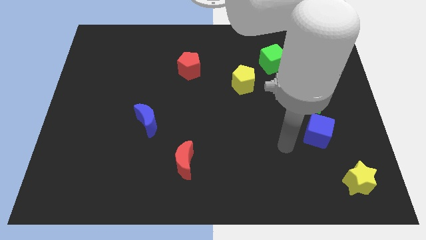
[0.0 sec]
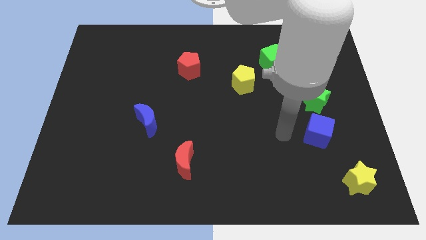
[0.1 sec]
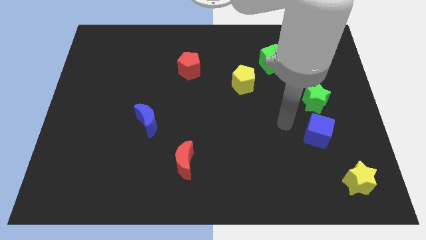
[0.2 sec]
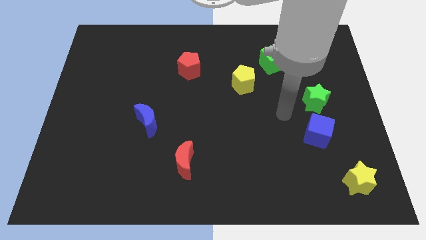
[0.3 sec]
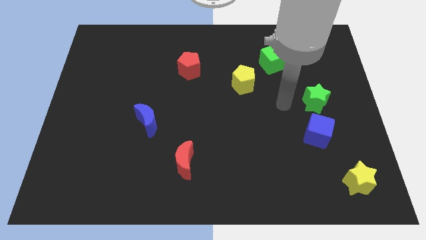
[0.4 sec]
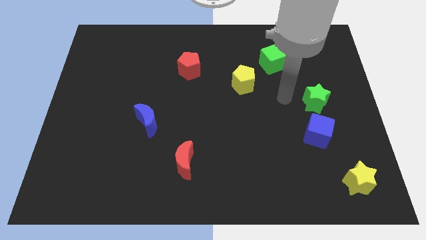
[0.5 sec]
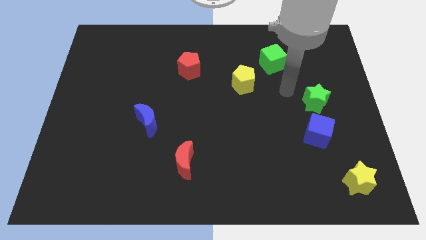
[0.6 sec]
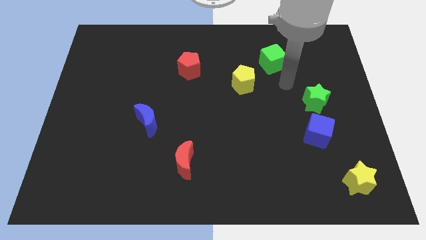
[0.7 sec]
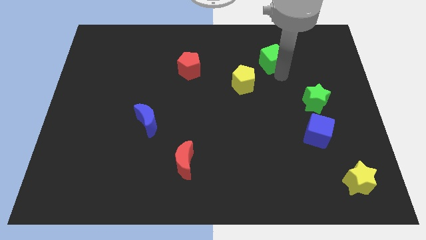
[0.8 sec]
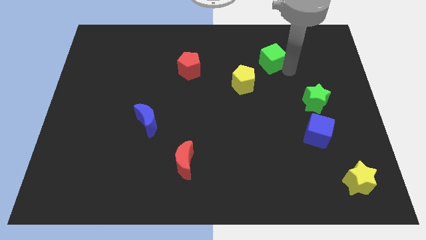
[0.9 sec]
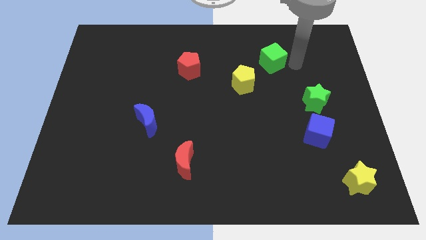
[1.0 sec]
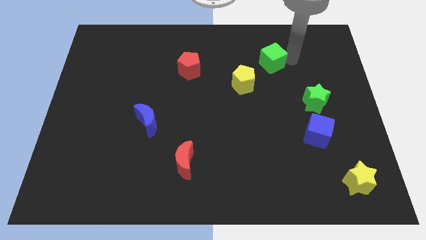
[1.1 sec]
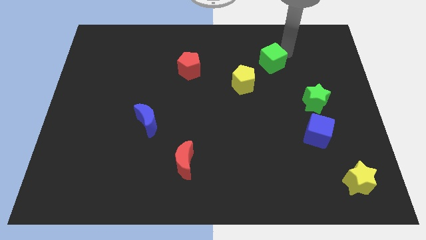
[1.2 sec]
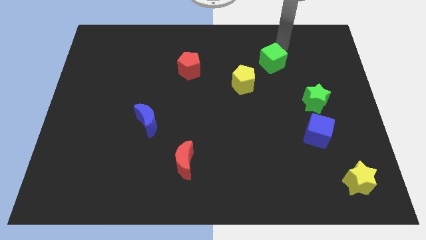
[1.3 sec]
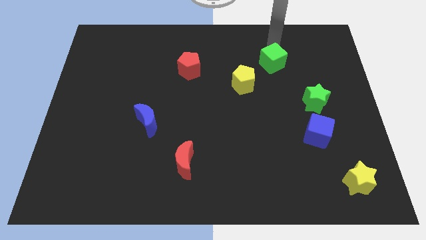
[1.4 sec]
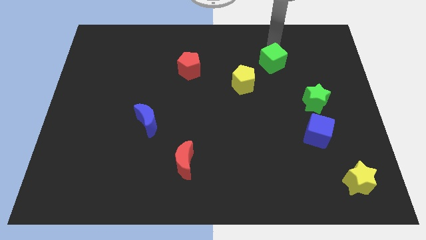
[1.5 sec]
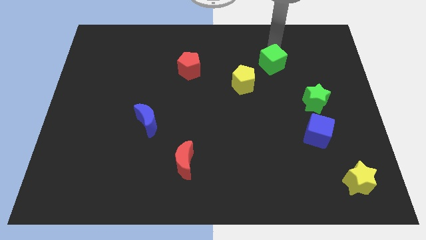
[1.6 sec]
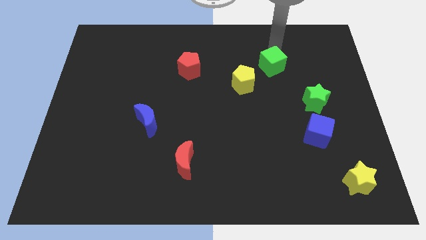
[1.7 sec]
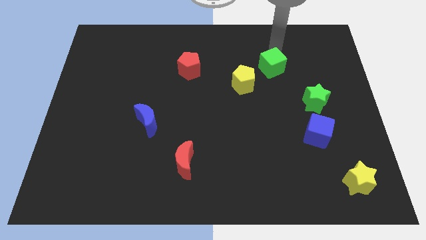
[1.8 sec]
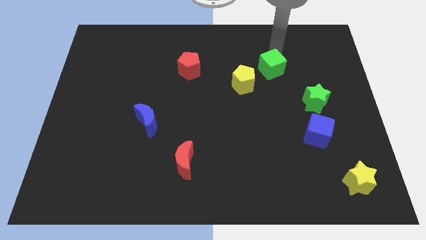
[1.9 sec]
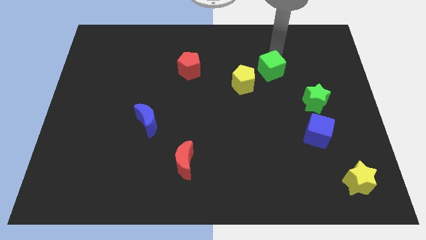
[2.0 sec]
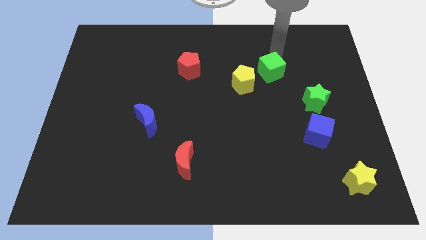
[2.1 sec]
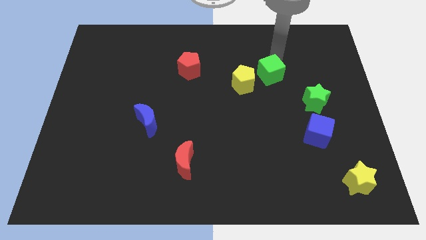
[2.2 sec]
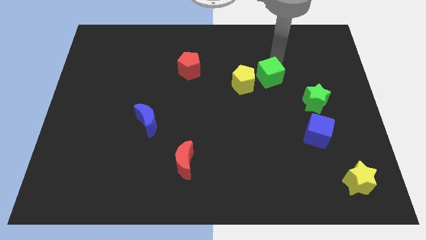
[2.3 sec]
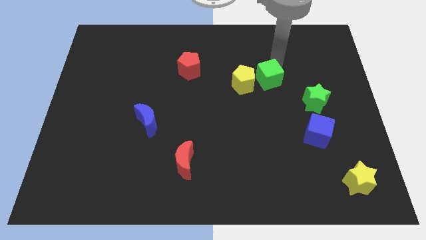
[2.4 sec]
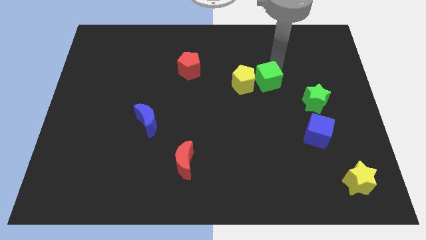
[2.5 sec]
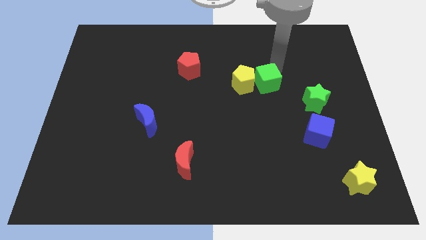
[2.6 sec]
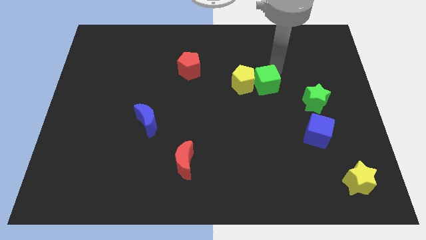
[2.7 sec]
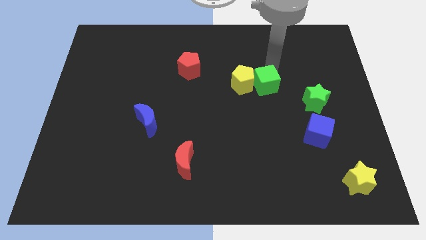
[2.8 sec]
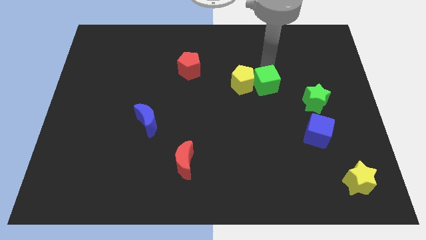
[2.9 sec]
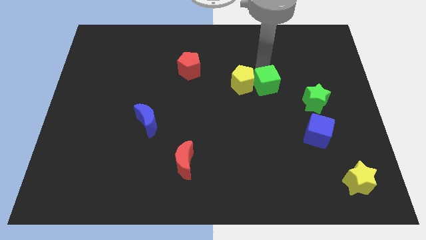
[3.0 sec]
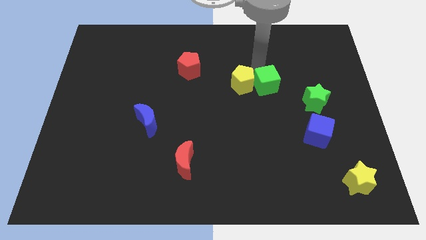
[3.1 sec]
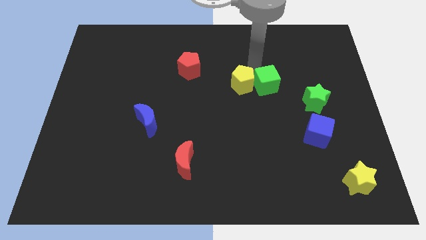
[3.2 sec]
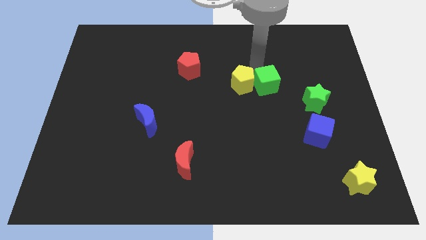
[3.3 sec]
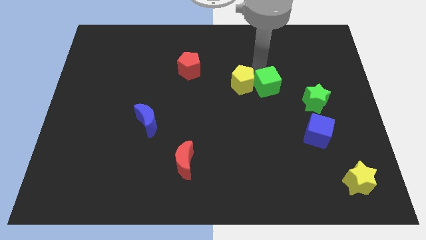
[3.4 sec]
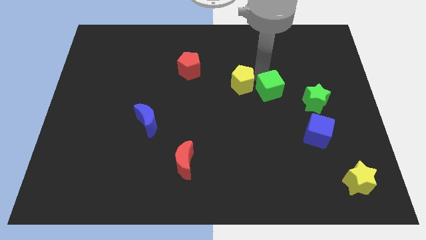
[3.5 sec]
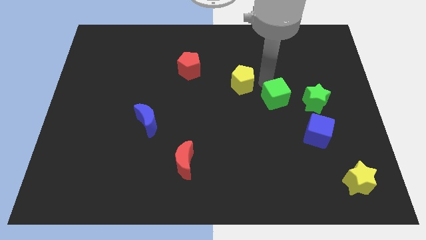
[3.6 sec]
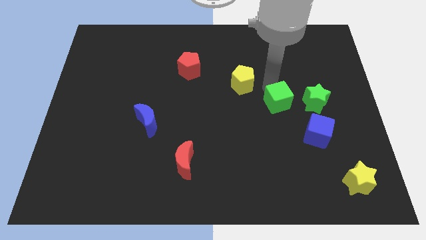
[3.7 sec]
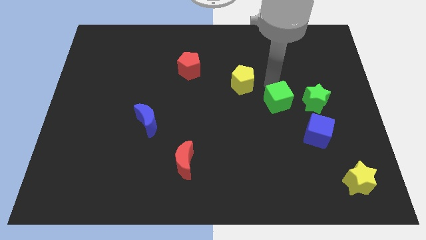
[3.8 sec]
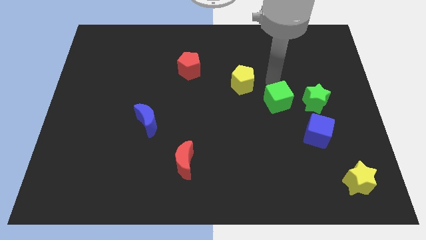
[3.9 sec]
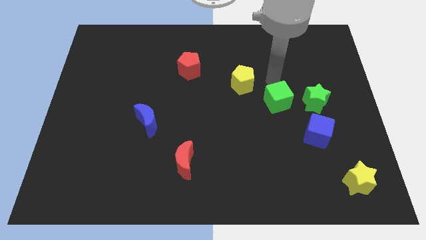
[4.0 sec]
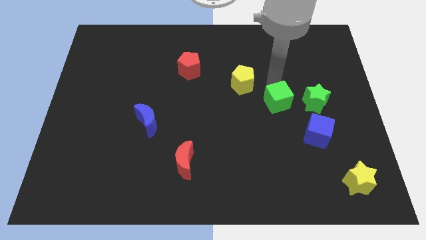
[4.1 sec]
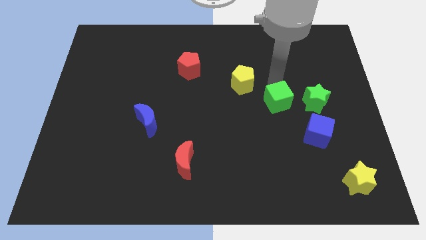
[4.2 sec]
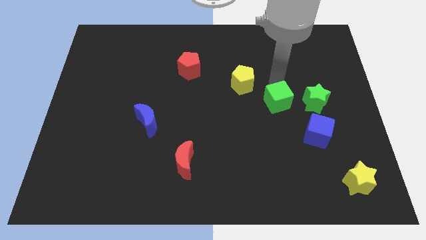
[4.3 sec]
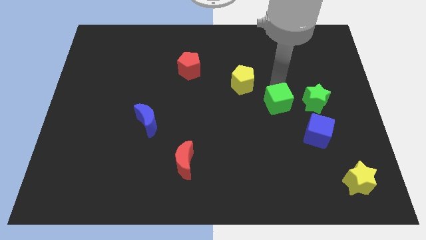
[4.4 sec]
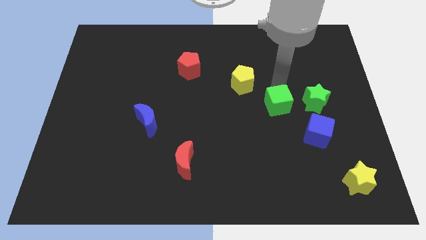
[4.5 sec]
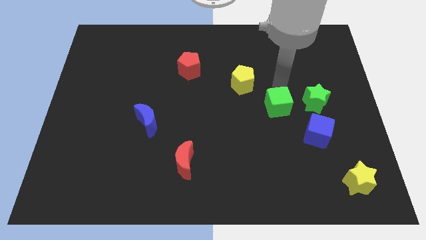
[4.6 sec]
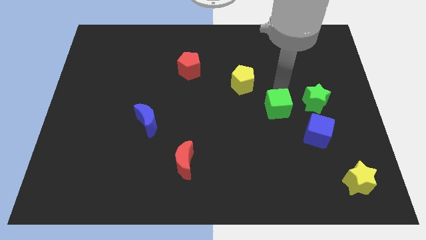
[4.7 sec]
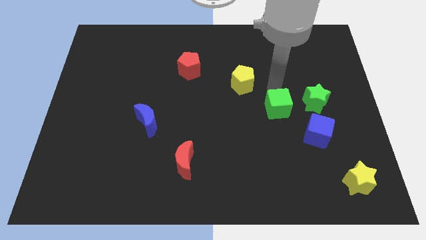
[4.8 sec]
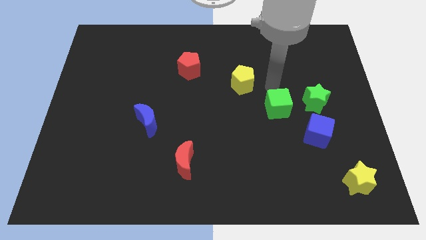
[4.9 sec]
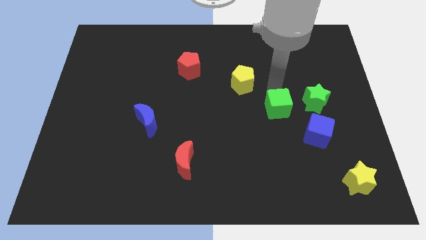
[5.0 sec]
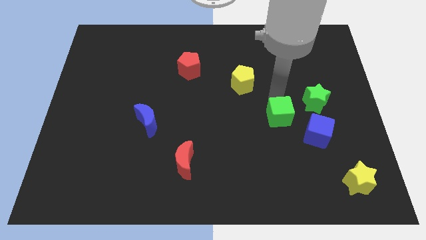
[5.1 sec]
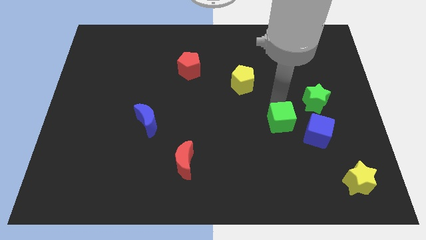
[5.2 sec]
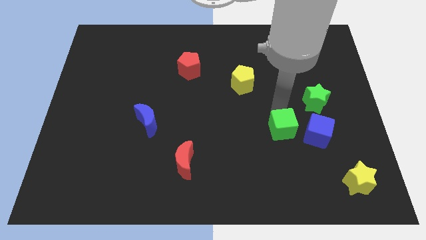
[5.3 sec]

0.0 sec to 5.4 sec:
move the green cube downwards

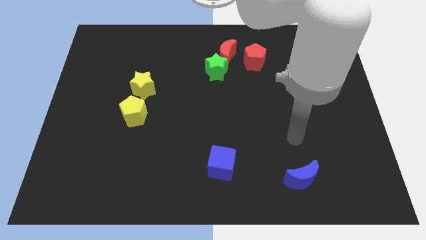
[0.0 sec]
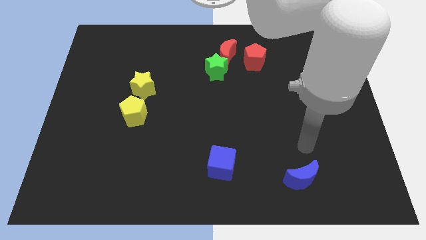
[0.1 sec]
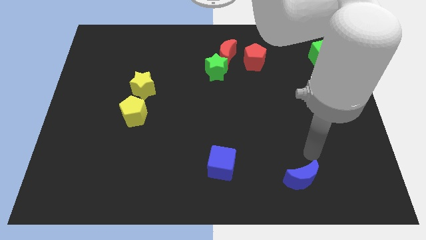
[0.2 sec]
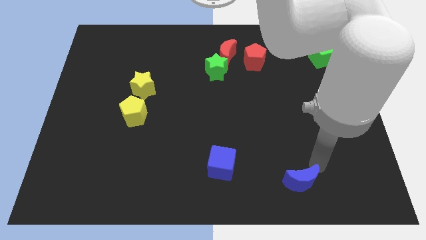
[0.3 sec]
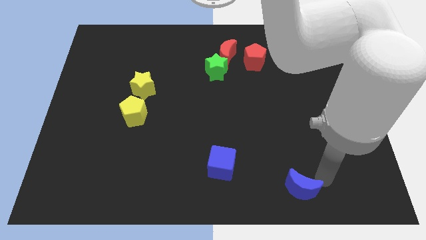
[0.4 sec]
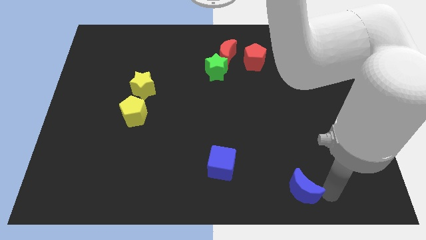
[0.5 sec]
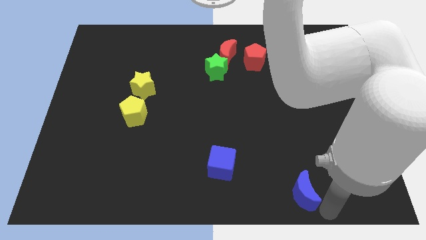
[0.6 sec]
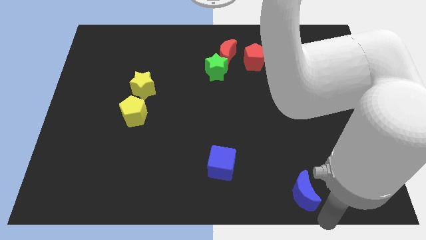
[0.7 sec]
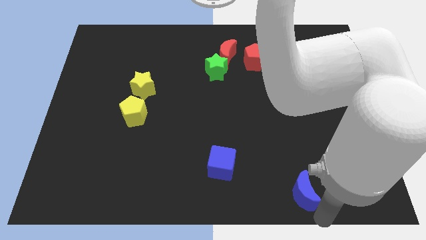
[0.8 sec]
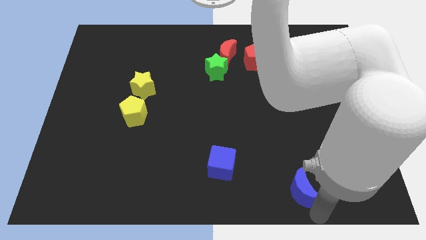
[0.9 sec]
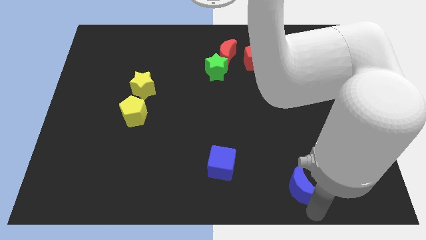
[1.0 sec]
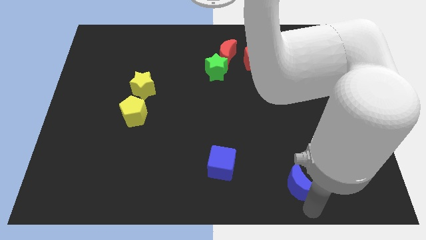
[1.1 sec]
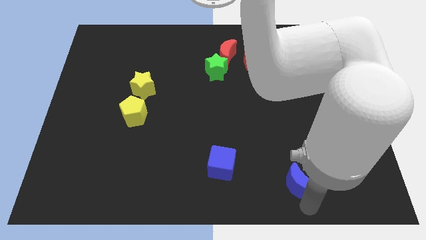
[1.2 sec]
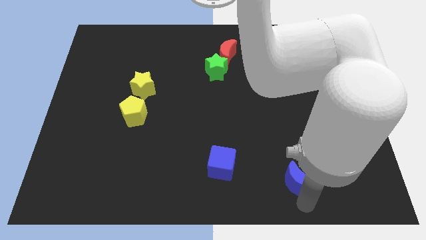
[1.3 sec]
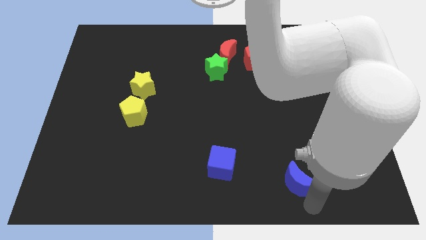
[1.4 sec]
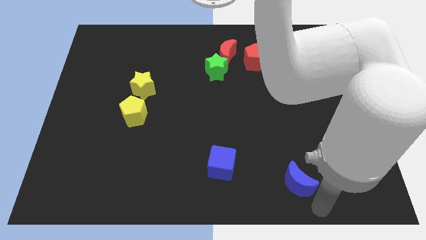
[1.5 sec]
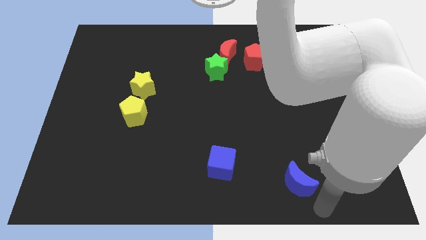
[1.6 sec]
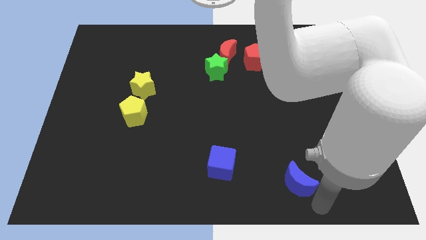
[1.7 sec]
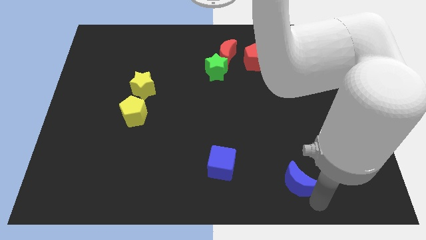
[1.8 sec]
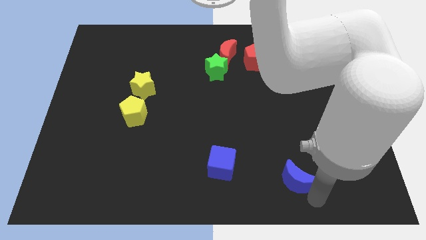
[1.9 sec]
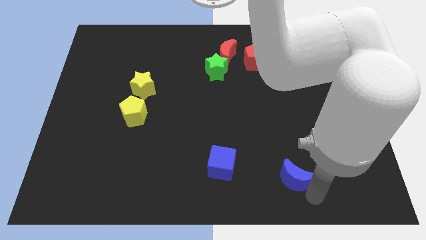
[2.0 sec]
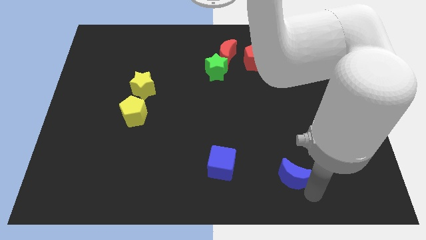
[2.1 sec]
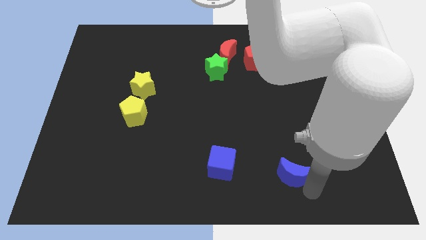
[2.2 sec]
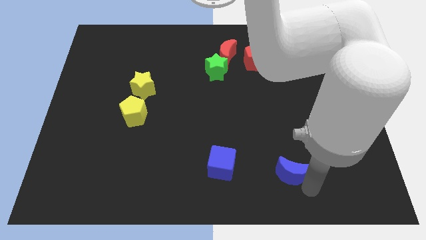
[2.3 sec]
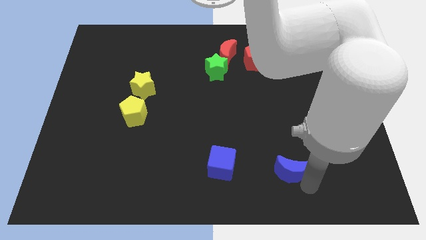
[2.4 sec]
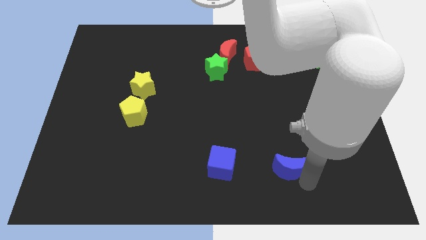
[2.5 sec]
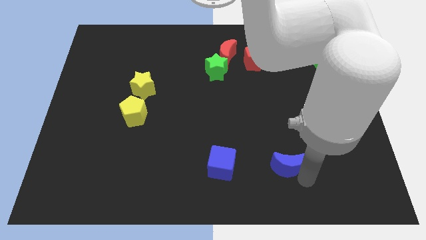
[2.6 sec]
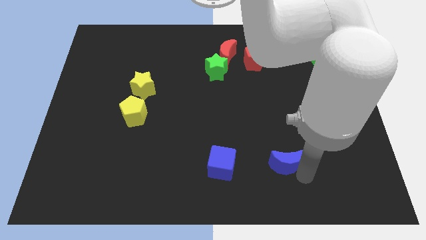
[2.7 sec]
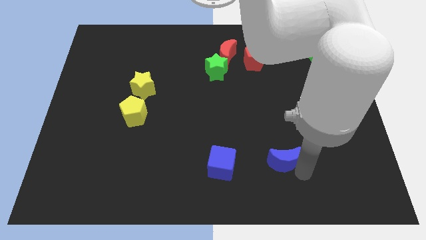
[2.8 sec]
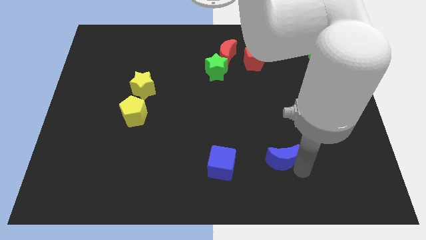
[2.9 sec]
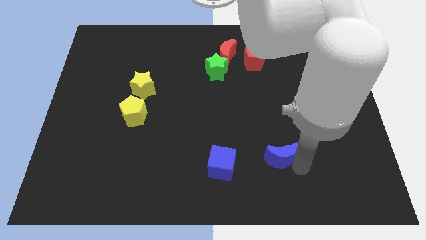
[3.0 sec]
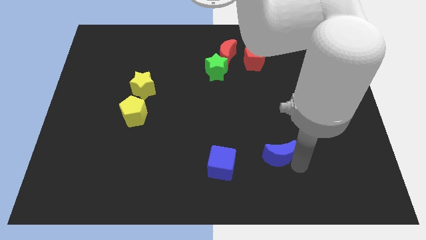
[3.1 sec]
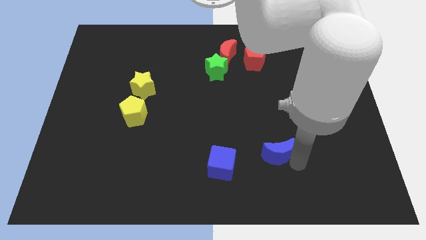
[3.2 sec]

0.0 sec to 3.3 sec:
slide the blue moon diagonally up and left a bit
